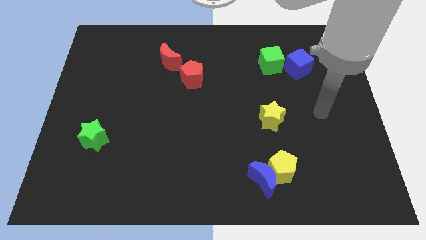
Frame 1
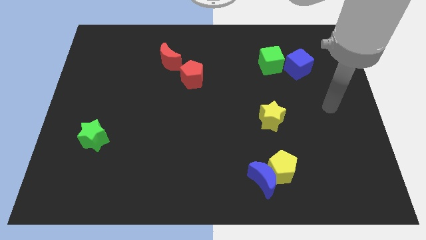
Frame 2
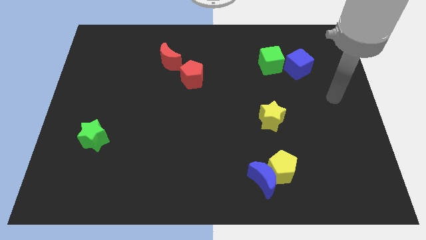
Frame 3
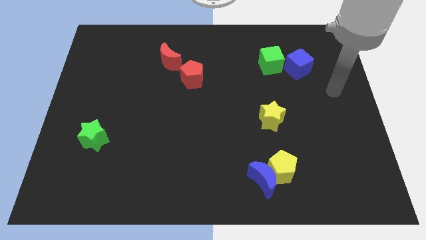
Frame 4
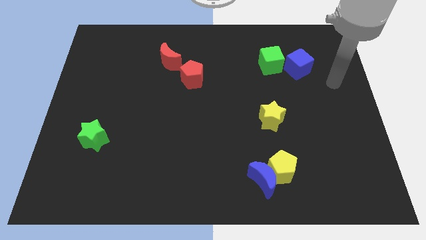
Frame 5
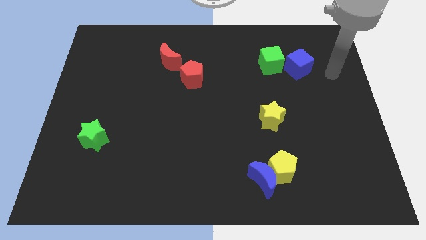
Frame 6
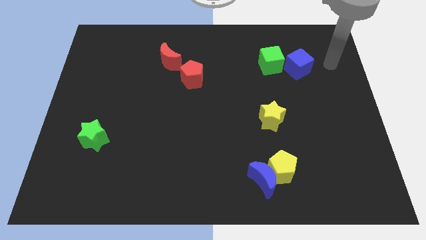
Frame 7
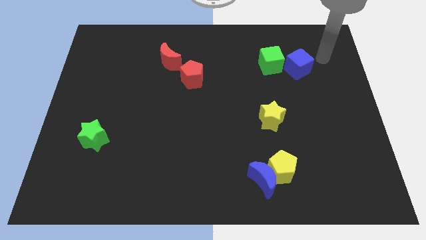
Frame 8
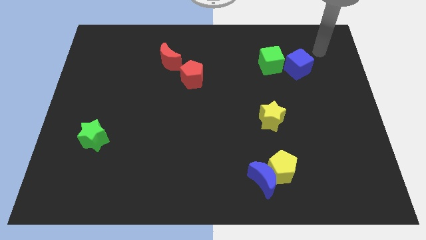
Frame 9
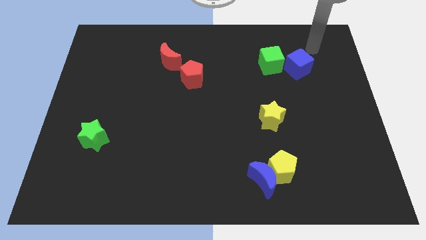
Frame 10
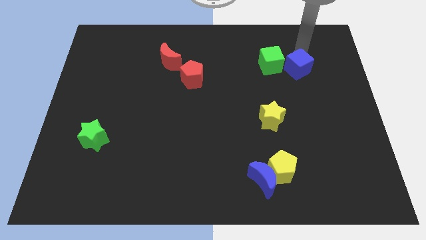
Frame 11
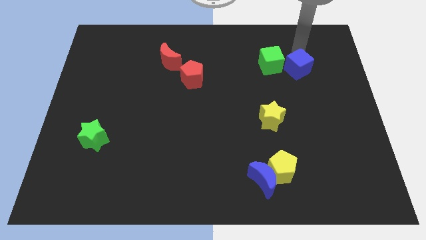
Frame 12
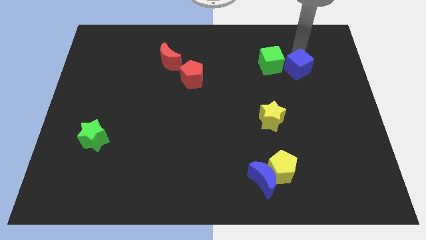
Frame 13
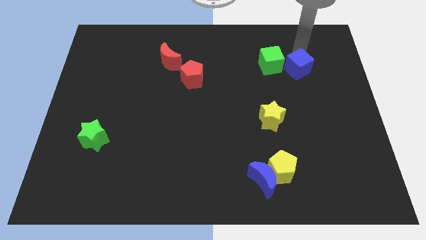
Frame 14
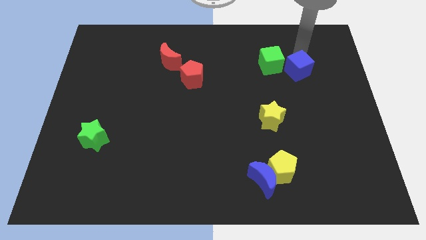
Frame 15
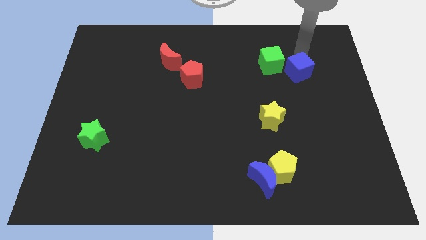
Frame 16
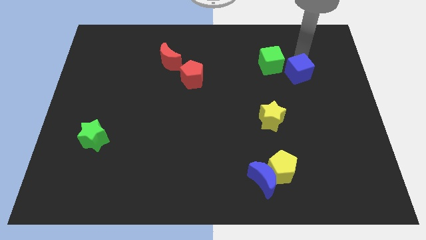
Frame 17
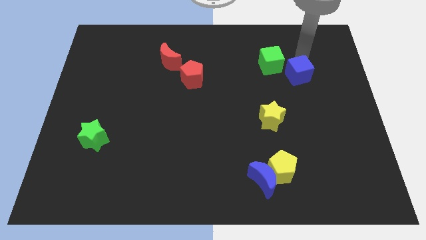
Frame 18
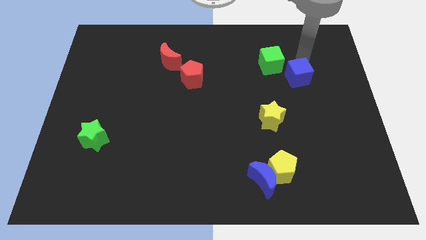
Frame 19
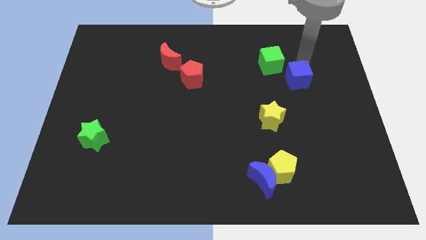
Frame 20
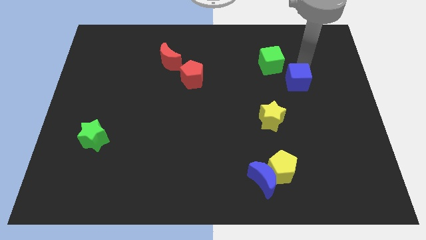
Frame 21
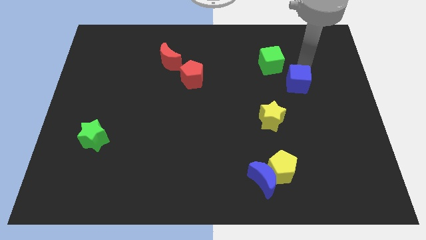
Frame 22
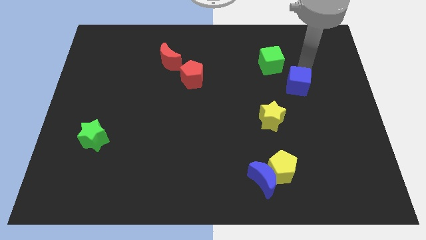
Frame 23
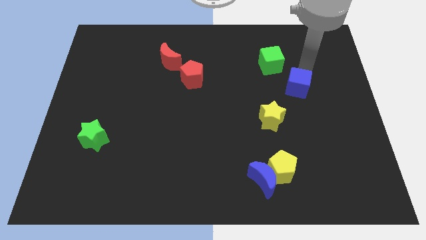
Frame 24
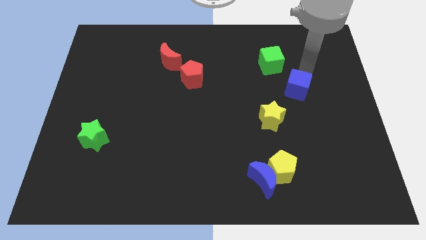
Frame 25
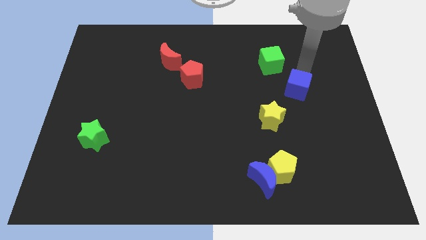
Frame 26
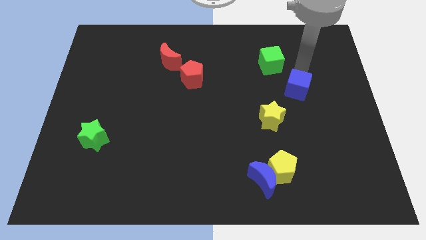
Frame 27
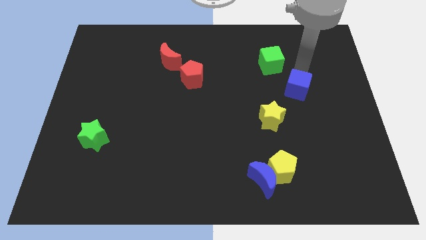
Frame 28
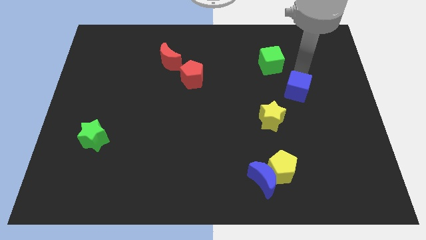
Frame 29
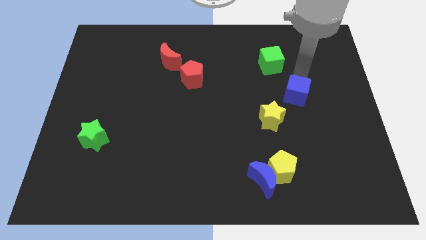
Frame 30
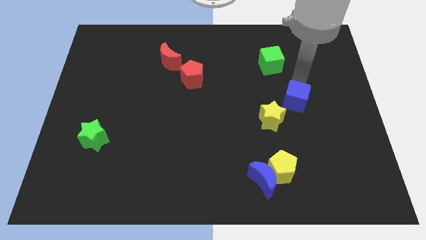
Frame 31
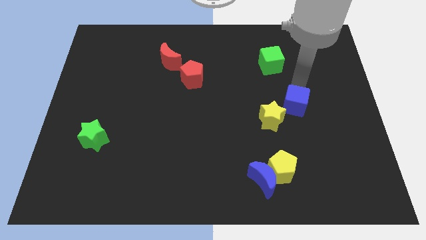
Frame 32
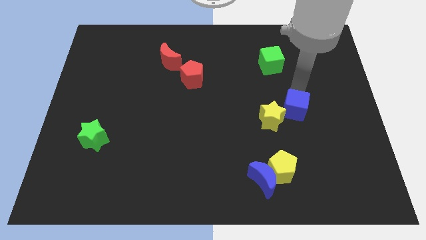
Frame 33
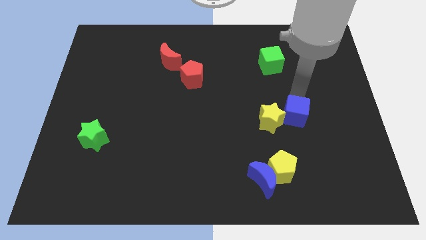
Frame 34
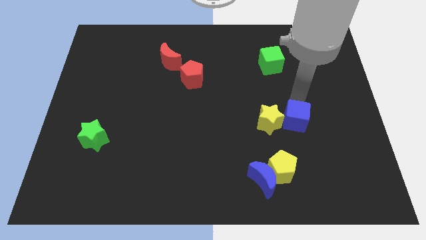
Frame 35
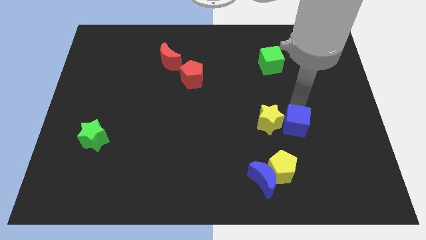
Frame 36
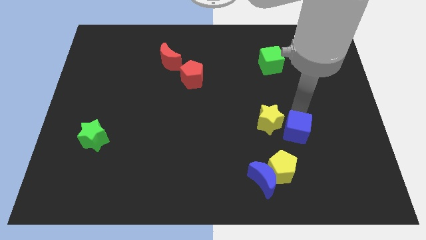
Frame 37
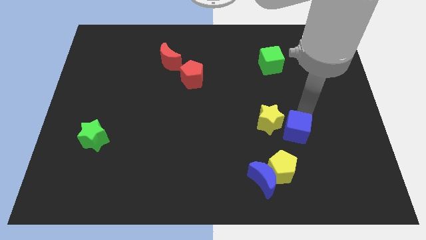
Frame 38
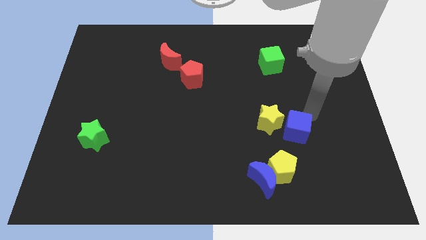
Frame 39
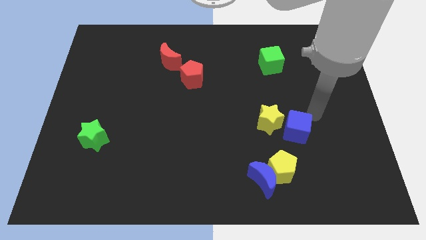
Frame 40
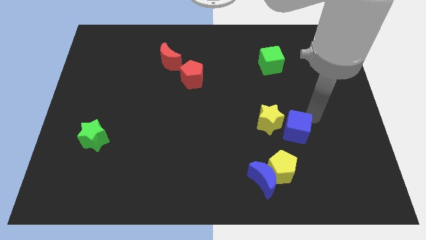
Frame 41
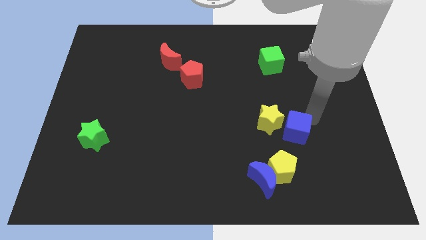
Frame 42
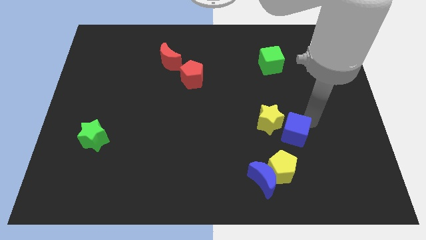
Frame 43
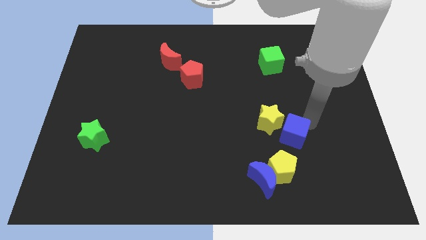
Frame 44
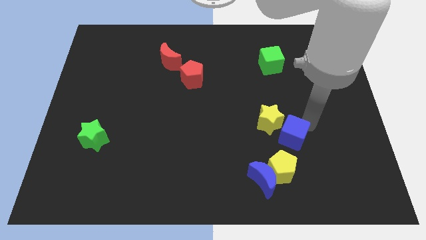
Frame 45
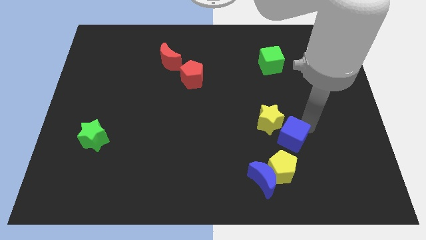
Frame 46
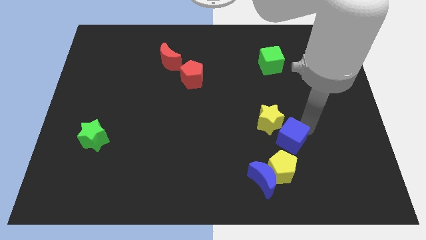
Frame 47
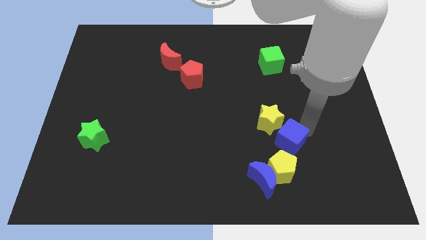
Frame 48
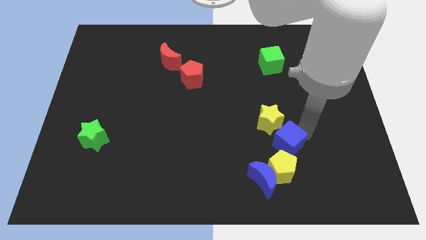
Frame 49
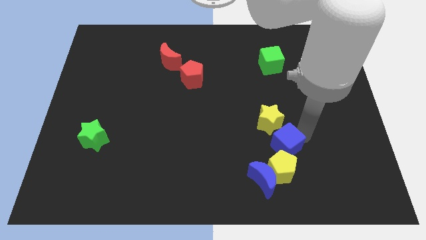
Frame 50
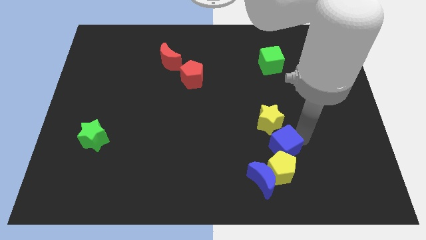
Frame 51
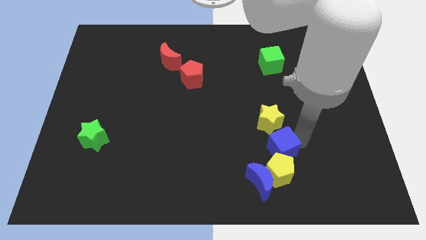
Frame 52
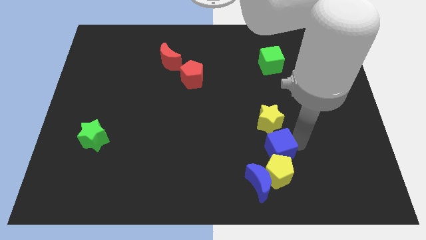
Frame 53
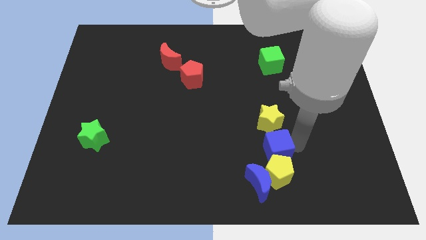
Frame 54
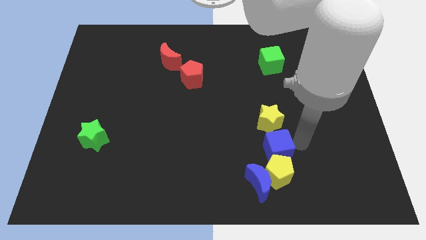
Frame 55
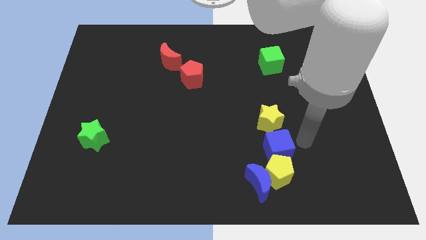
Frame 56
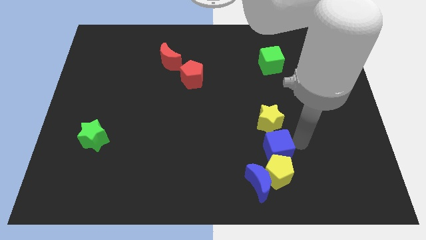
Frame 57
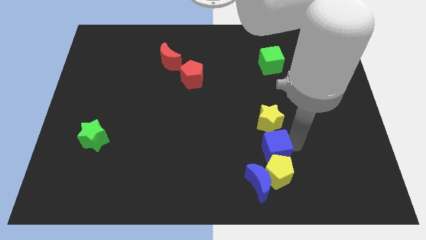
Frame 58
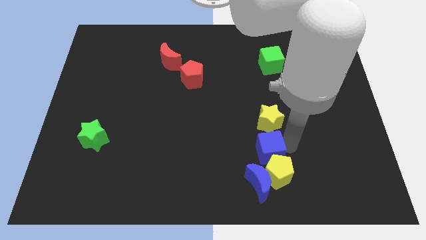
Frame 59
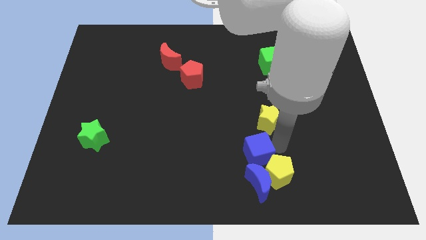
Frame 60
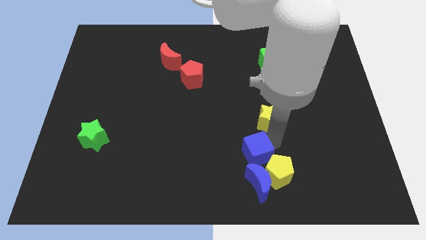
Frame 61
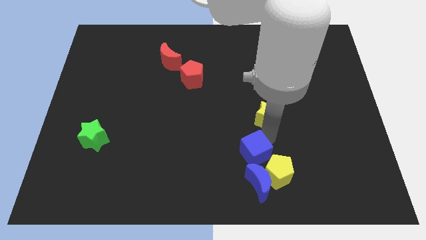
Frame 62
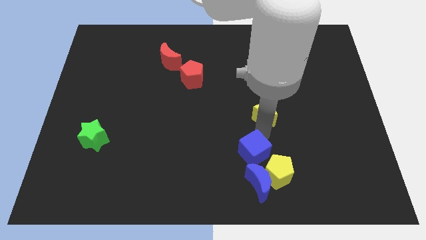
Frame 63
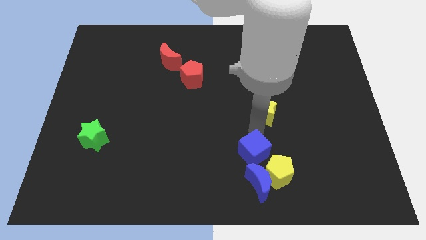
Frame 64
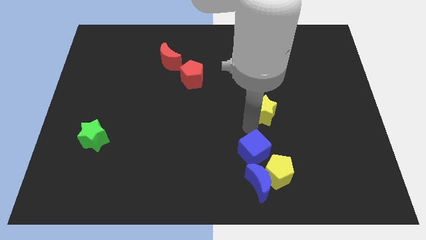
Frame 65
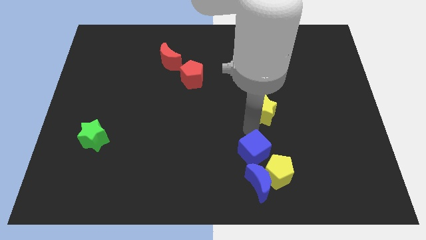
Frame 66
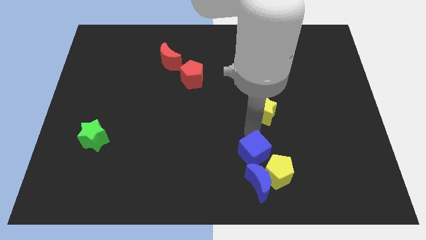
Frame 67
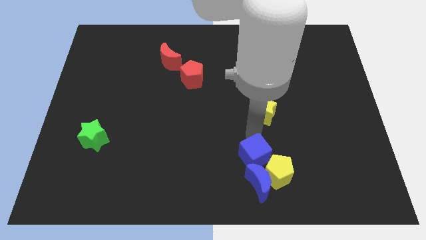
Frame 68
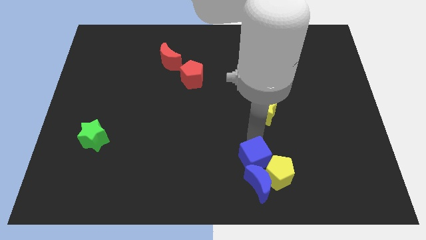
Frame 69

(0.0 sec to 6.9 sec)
push the blue cube close to the blue moon

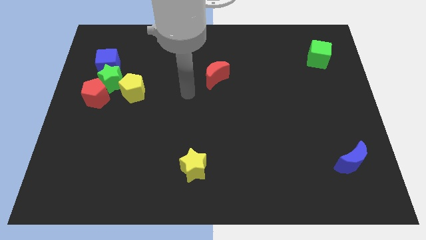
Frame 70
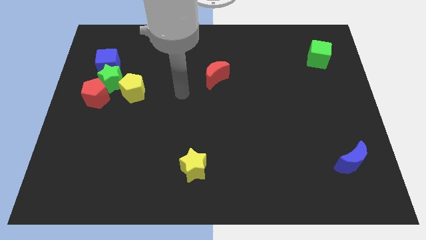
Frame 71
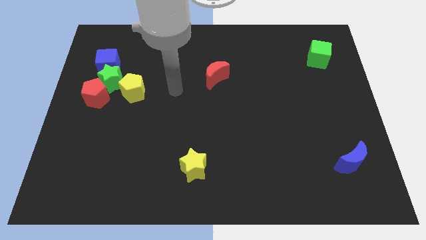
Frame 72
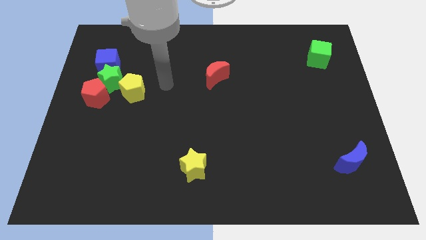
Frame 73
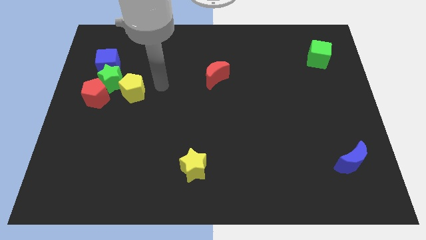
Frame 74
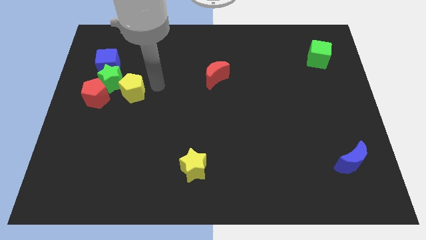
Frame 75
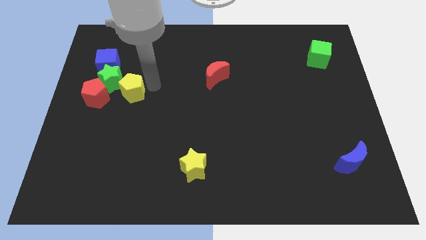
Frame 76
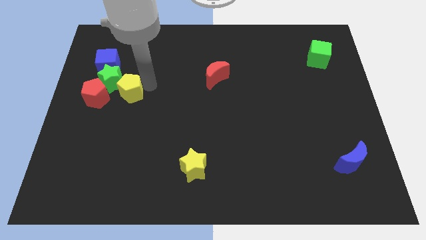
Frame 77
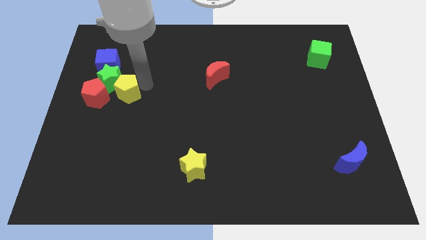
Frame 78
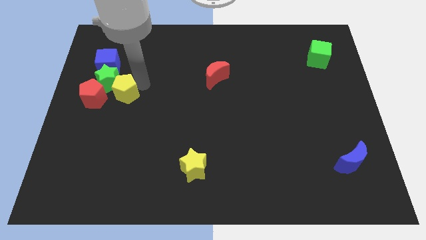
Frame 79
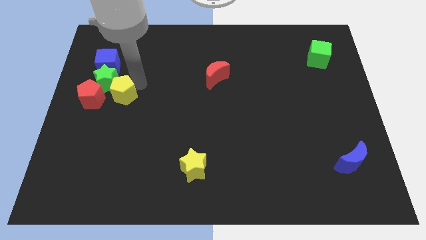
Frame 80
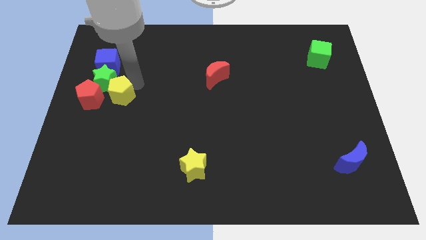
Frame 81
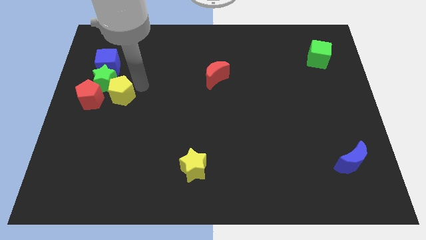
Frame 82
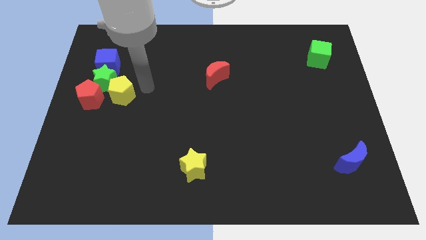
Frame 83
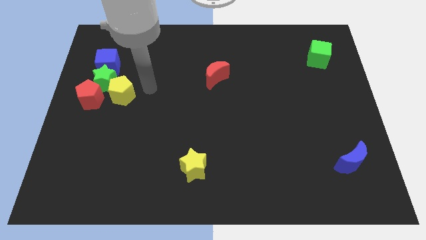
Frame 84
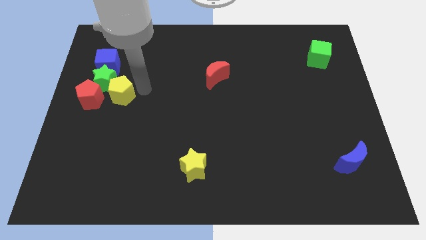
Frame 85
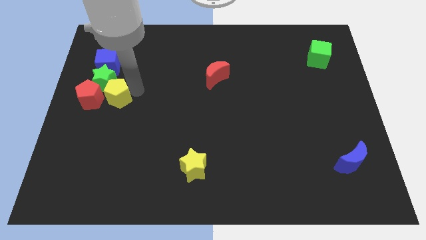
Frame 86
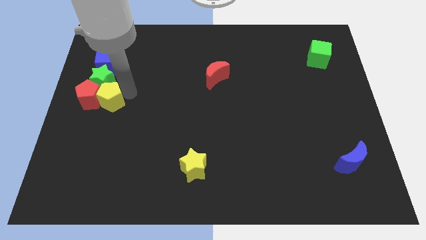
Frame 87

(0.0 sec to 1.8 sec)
push the yellow pentagon next to the red pentagon
